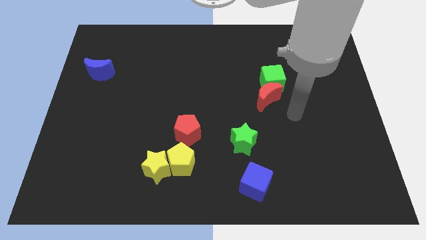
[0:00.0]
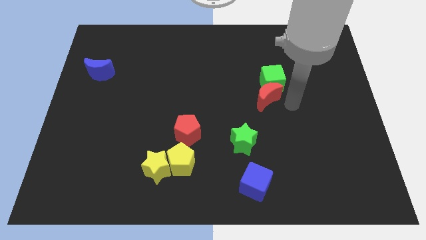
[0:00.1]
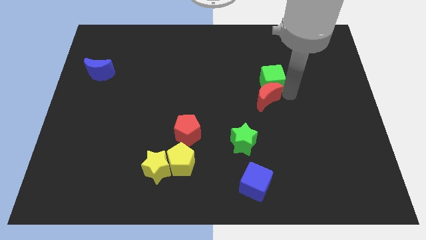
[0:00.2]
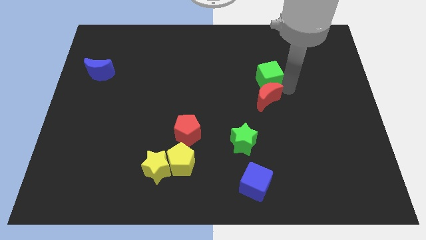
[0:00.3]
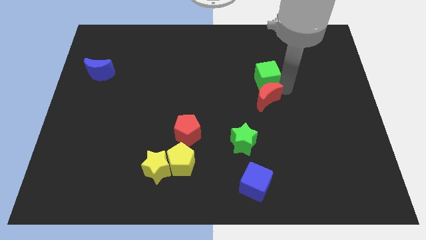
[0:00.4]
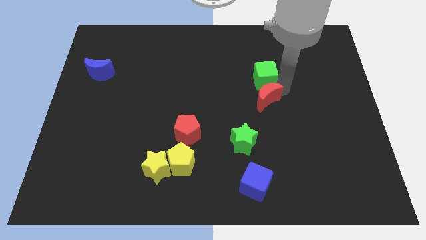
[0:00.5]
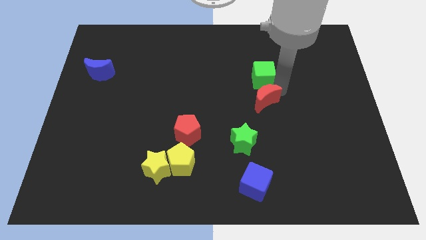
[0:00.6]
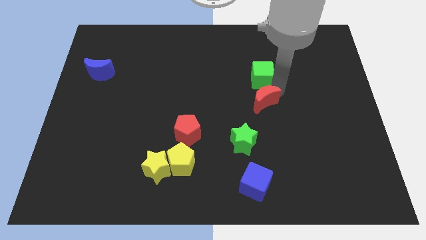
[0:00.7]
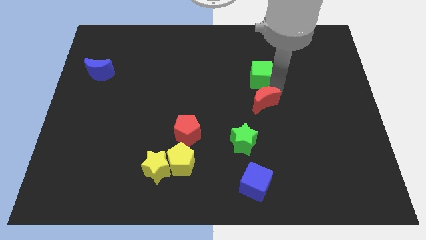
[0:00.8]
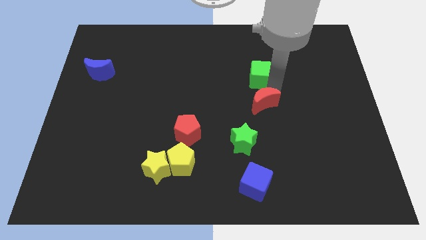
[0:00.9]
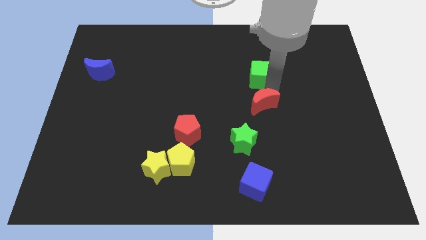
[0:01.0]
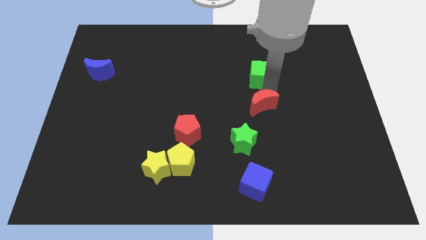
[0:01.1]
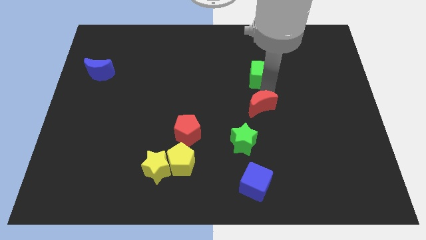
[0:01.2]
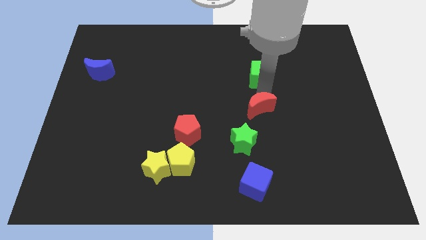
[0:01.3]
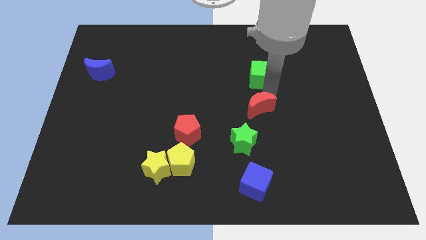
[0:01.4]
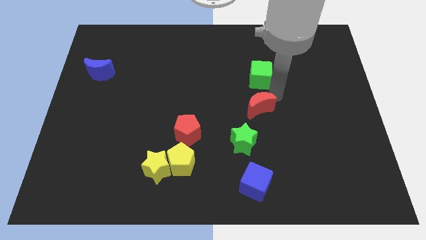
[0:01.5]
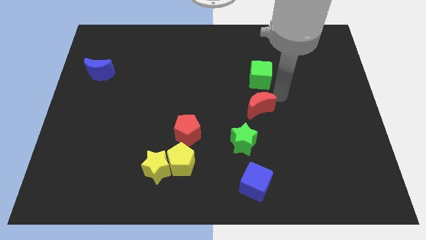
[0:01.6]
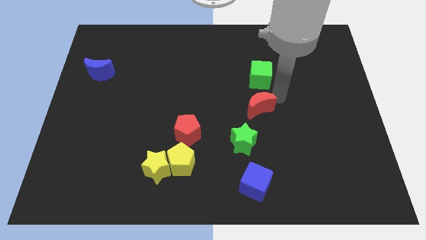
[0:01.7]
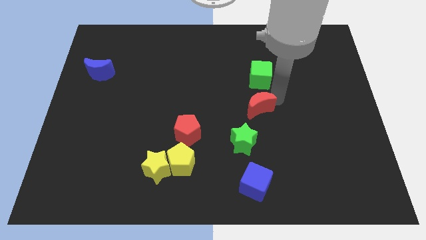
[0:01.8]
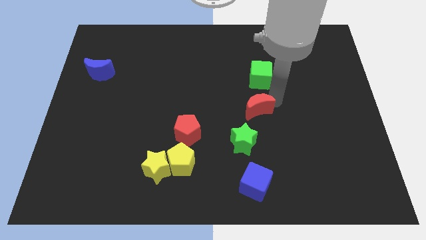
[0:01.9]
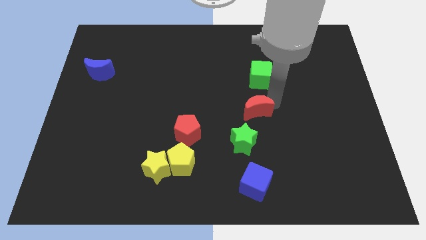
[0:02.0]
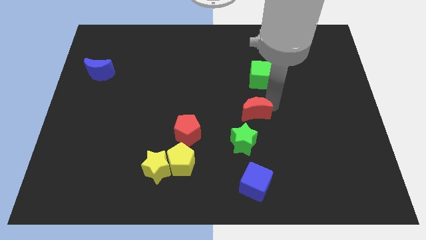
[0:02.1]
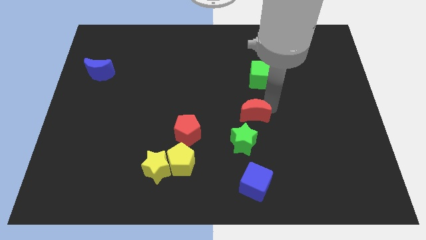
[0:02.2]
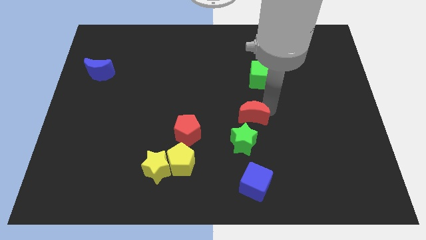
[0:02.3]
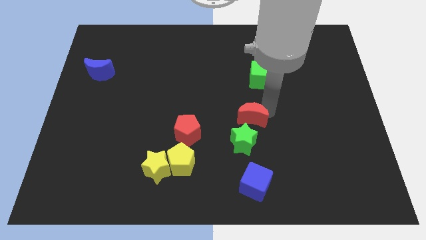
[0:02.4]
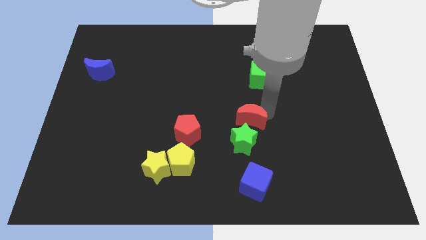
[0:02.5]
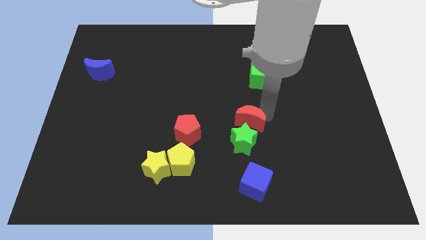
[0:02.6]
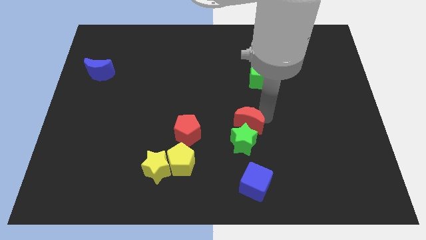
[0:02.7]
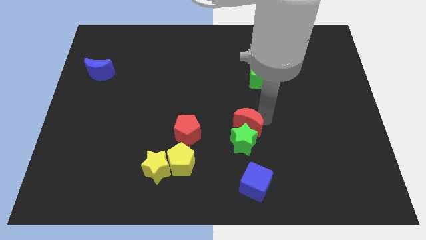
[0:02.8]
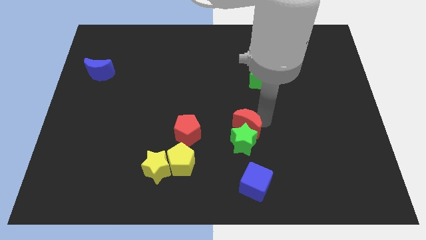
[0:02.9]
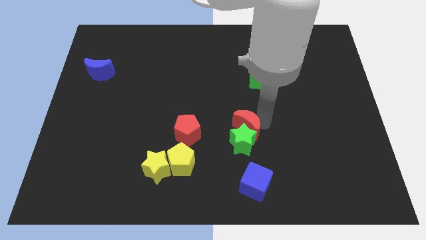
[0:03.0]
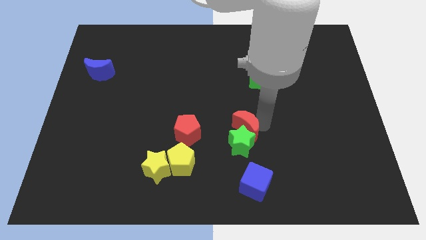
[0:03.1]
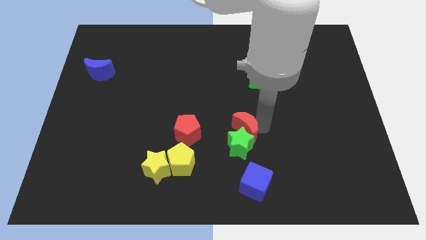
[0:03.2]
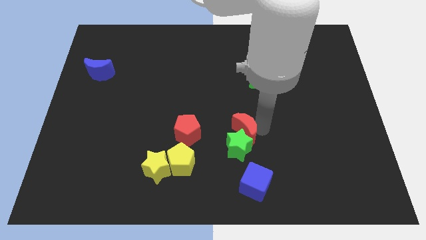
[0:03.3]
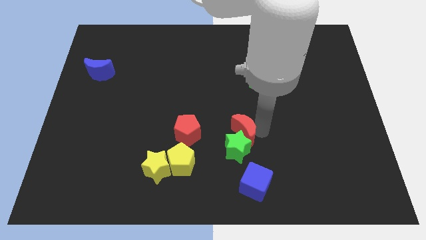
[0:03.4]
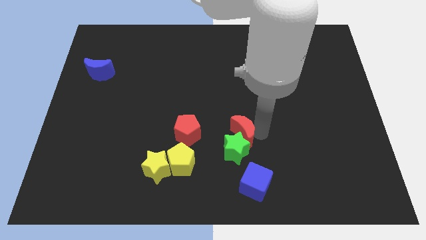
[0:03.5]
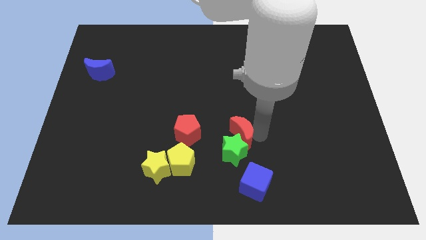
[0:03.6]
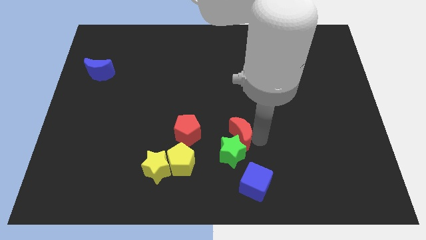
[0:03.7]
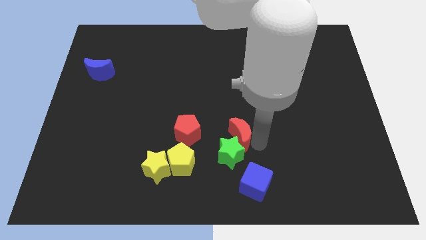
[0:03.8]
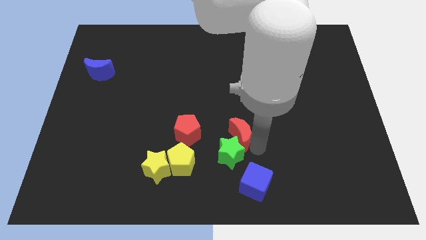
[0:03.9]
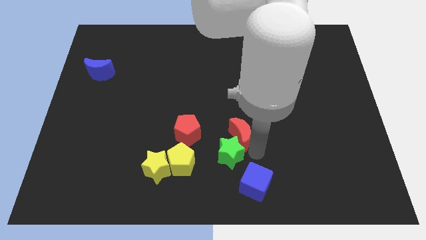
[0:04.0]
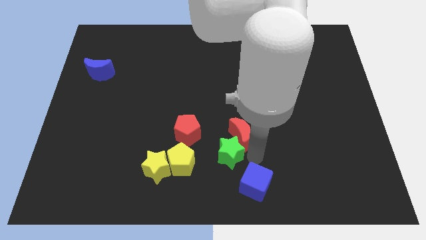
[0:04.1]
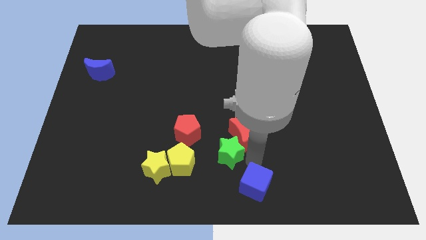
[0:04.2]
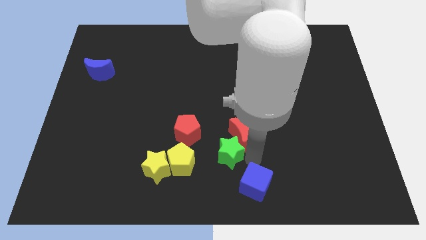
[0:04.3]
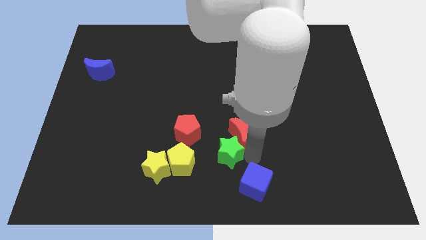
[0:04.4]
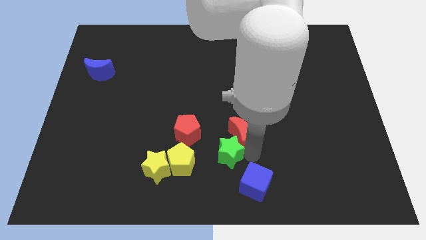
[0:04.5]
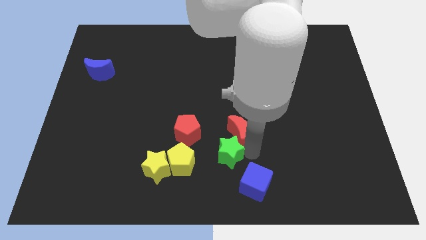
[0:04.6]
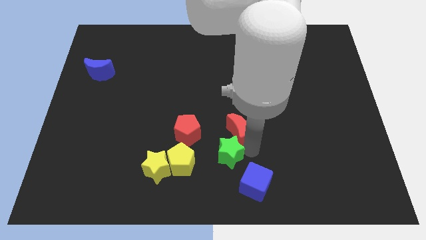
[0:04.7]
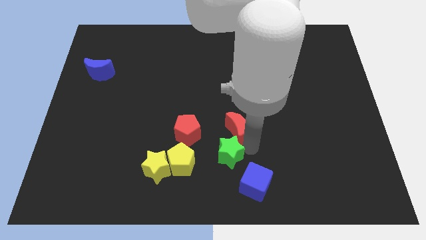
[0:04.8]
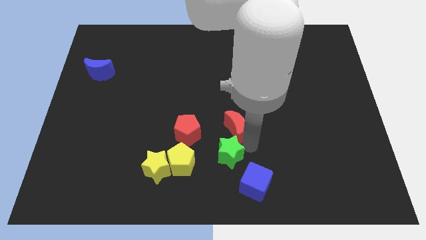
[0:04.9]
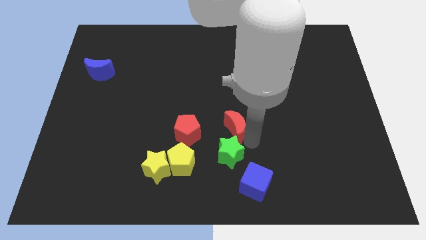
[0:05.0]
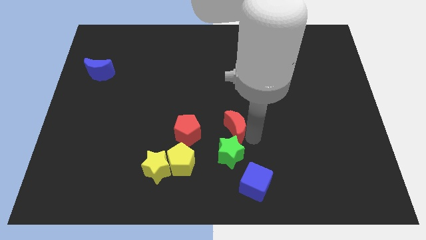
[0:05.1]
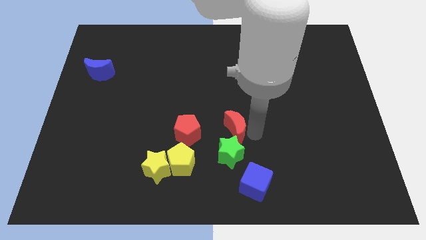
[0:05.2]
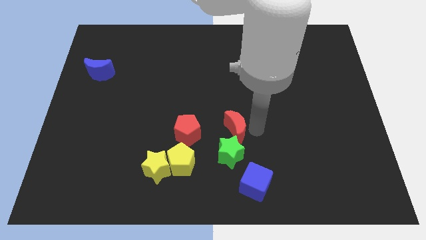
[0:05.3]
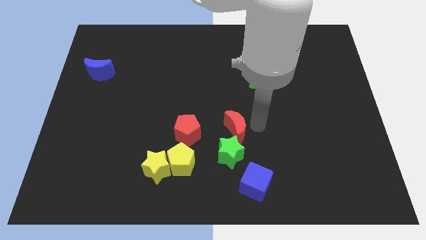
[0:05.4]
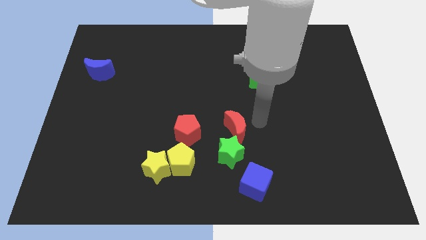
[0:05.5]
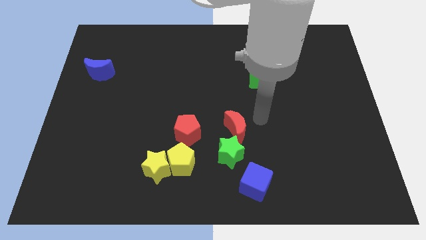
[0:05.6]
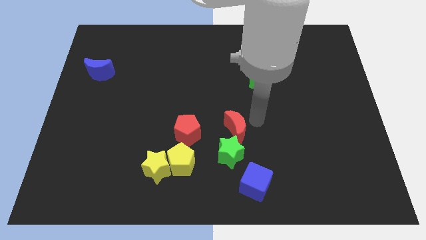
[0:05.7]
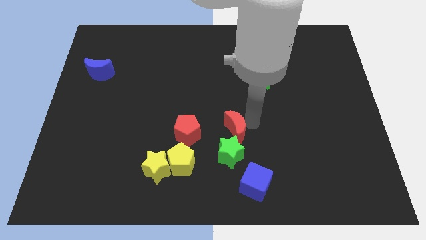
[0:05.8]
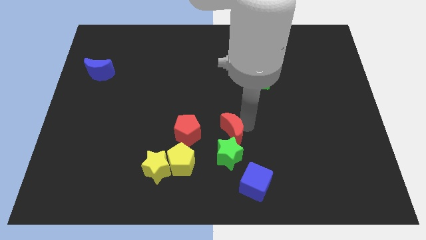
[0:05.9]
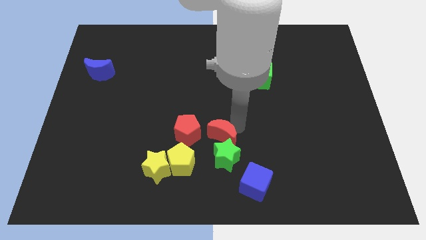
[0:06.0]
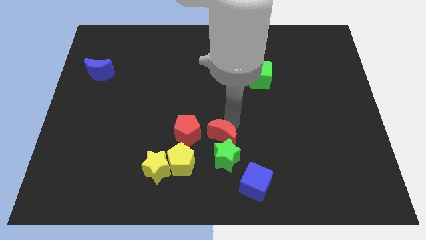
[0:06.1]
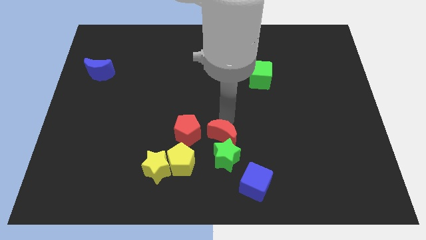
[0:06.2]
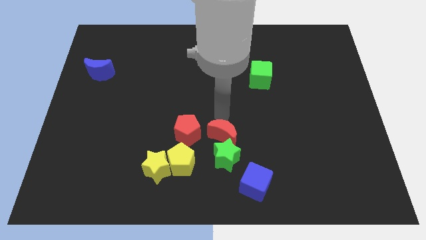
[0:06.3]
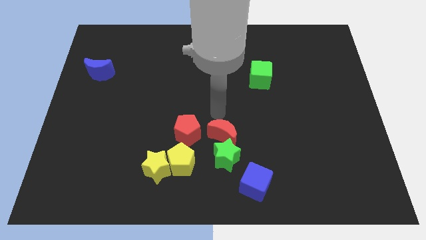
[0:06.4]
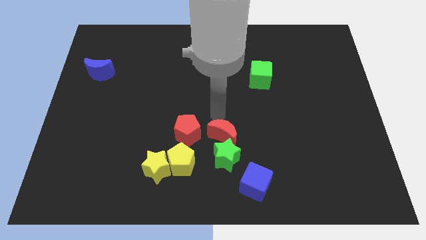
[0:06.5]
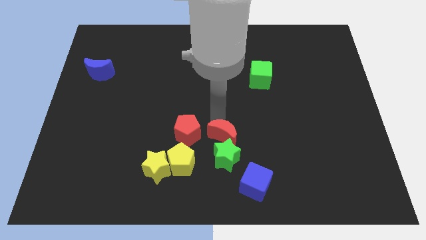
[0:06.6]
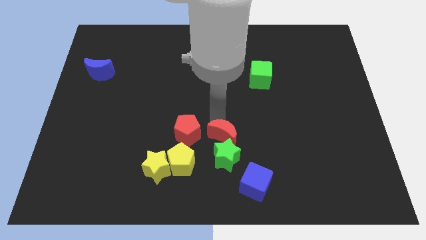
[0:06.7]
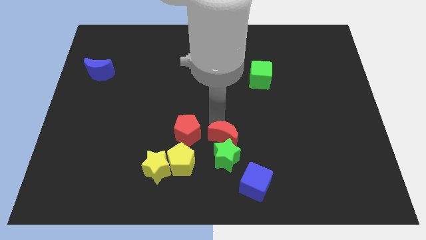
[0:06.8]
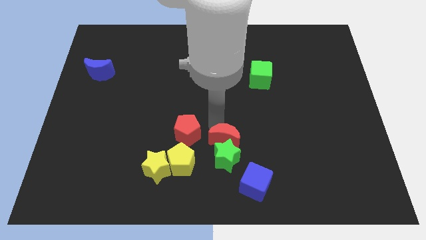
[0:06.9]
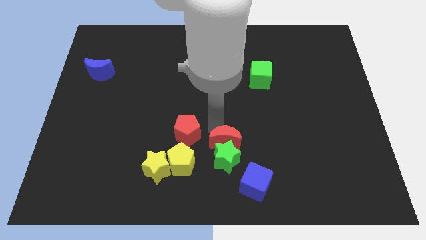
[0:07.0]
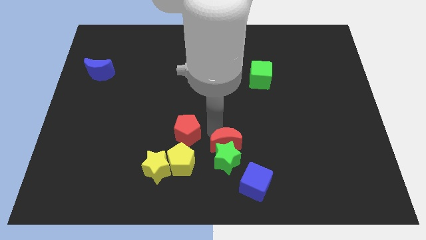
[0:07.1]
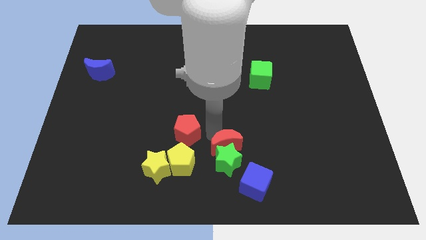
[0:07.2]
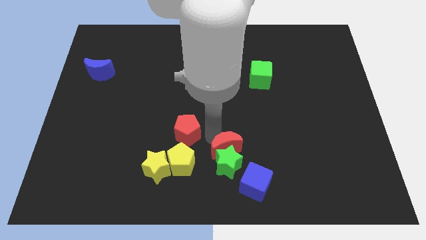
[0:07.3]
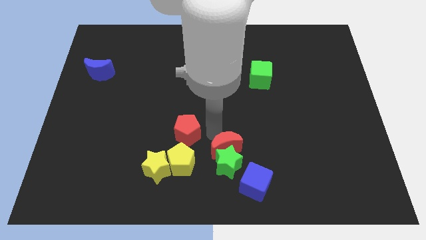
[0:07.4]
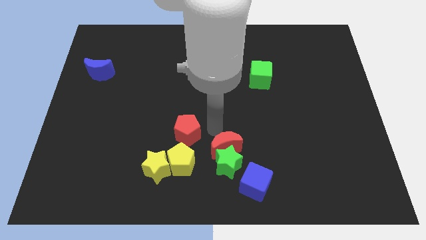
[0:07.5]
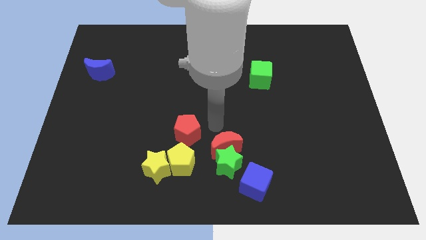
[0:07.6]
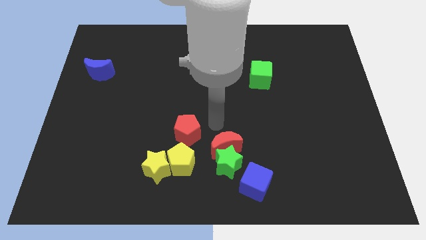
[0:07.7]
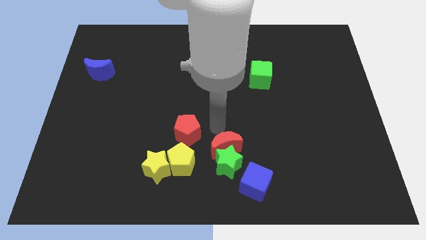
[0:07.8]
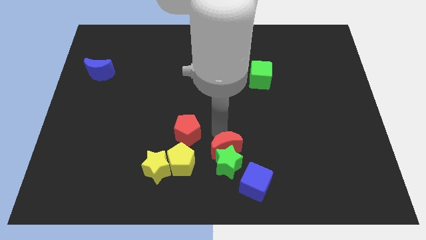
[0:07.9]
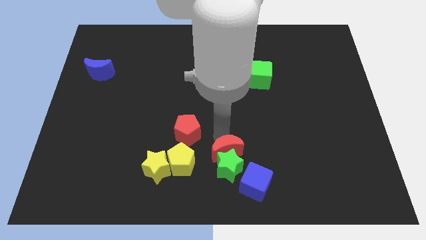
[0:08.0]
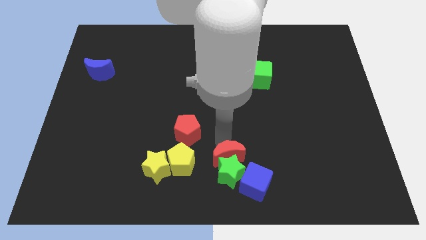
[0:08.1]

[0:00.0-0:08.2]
slide the red moon to the bottom side
